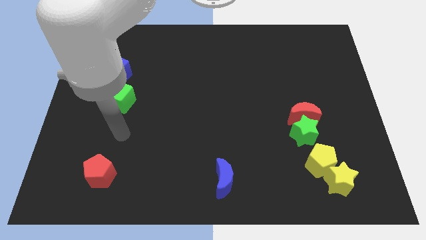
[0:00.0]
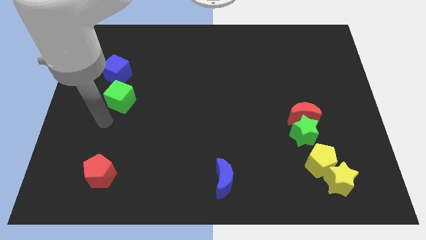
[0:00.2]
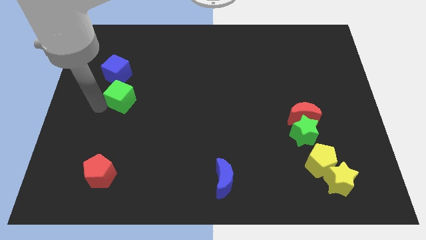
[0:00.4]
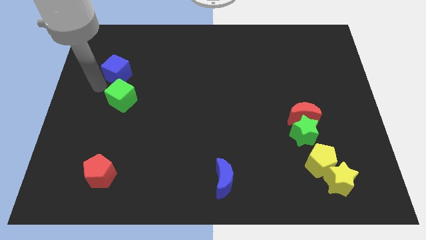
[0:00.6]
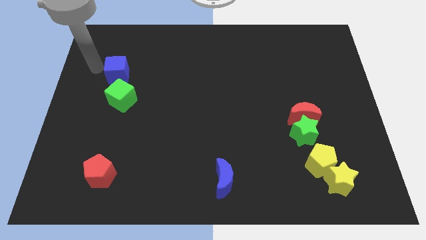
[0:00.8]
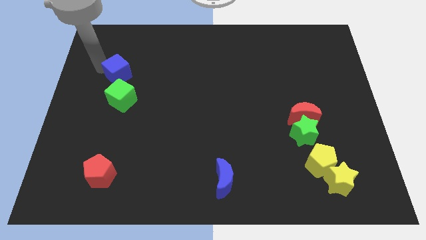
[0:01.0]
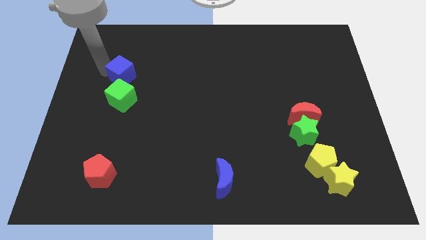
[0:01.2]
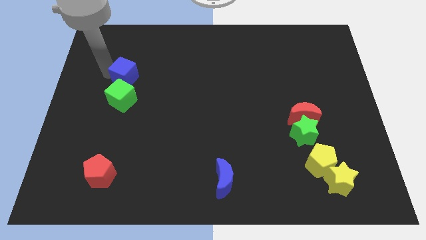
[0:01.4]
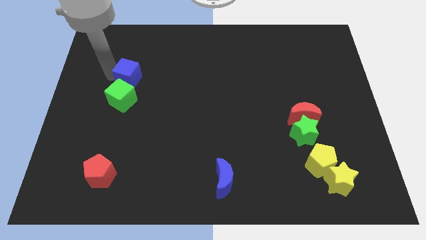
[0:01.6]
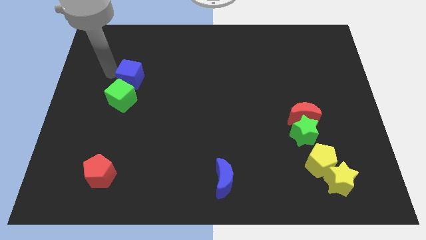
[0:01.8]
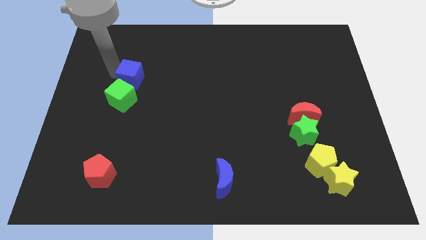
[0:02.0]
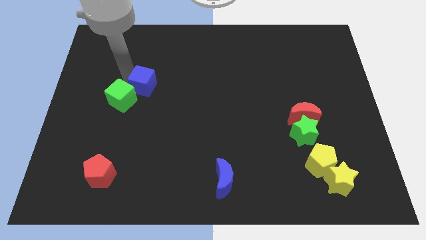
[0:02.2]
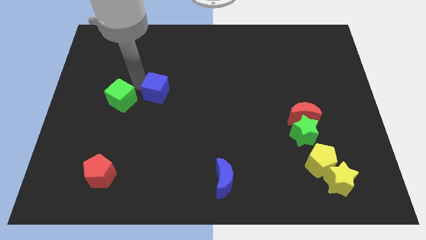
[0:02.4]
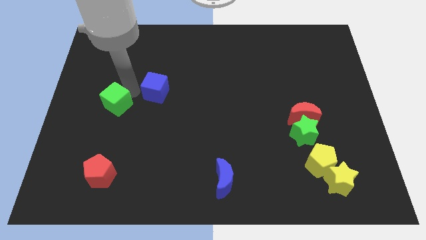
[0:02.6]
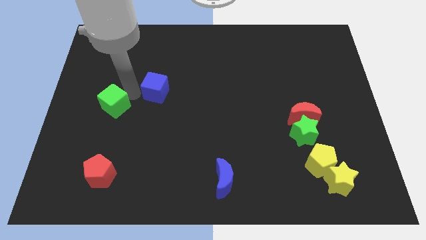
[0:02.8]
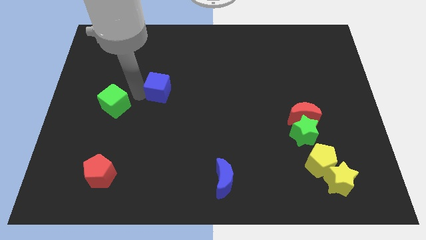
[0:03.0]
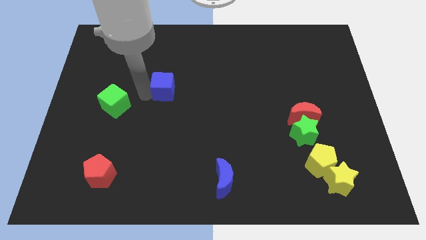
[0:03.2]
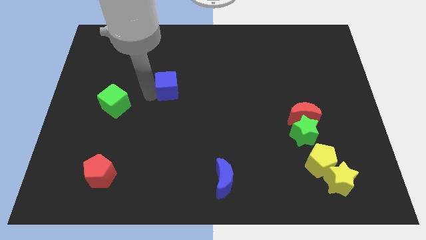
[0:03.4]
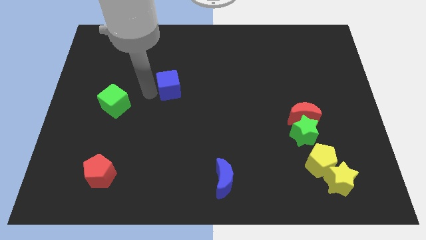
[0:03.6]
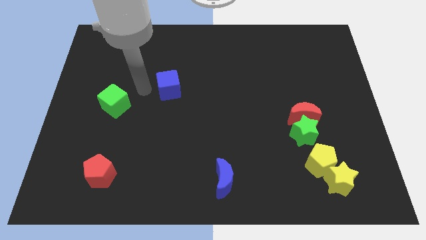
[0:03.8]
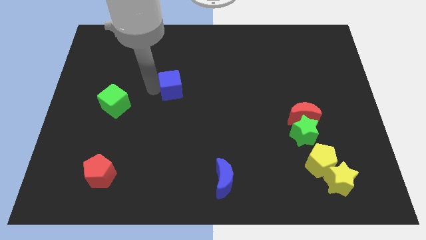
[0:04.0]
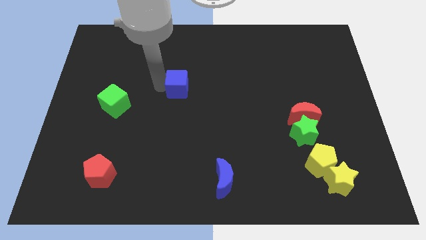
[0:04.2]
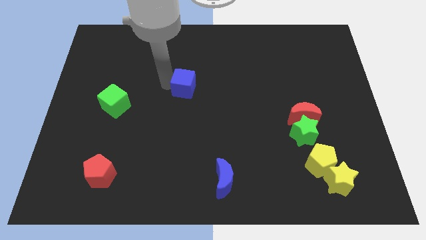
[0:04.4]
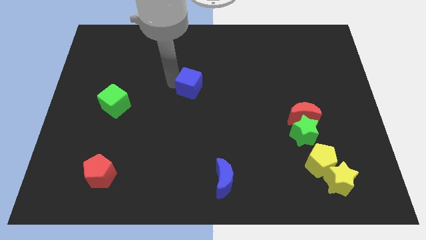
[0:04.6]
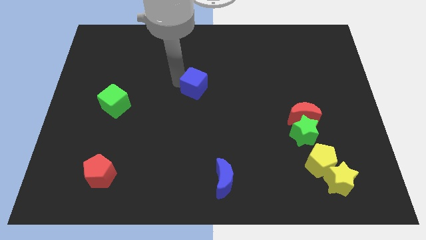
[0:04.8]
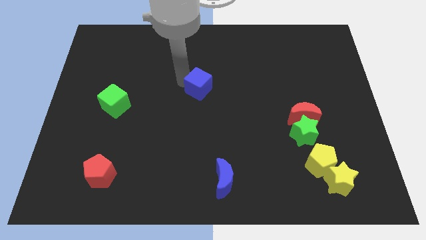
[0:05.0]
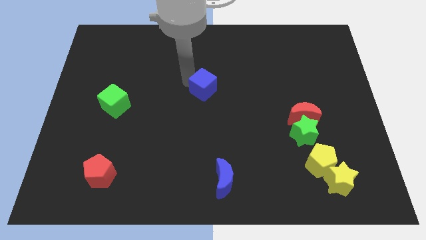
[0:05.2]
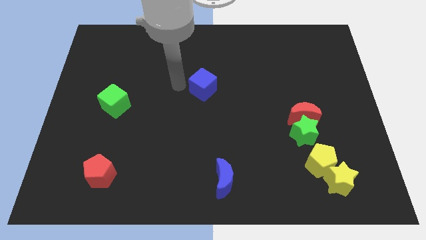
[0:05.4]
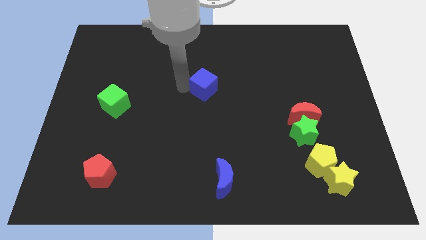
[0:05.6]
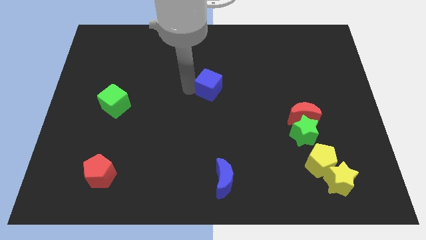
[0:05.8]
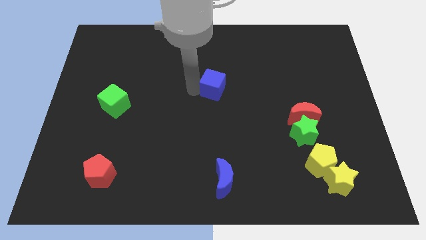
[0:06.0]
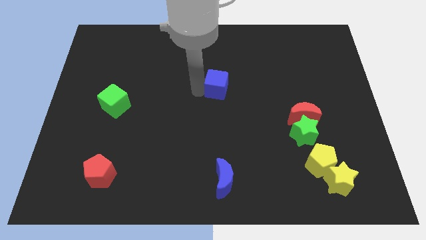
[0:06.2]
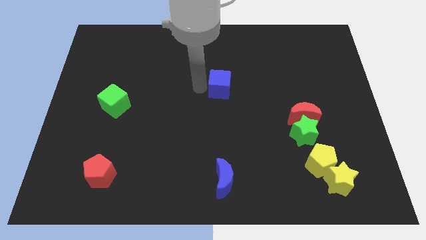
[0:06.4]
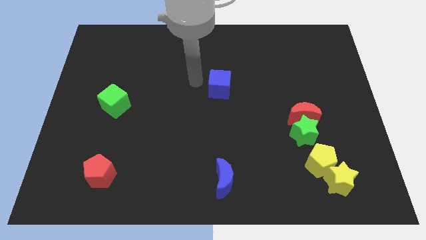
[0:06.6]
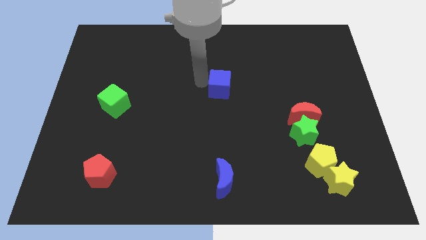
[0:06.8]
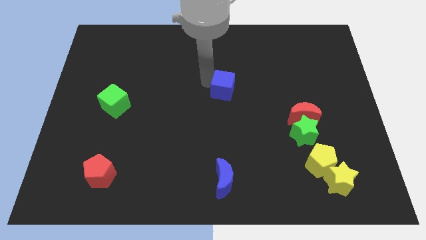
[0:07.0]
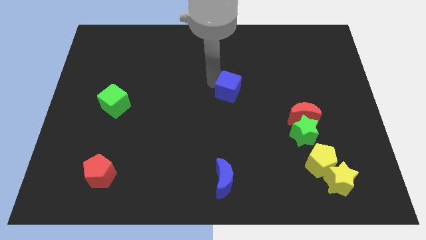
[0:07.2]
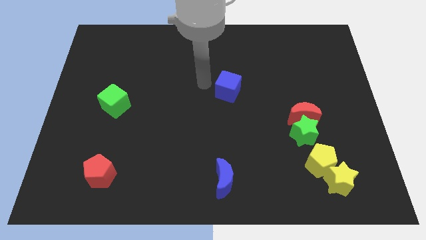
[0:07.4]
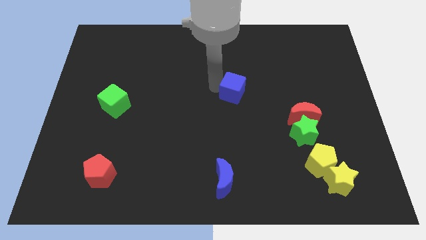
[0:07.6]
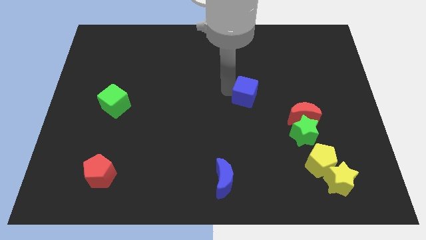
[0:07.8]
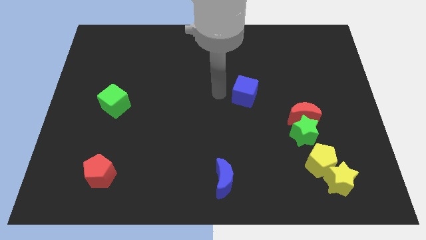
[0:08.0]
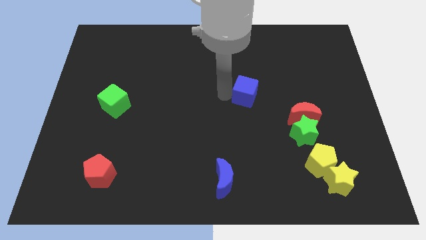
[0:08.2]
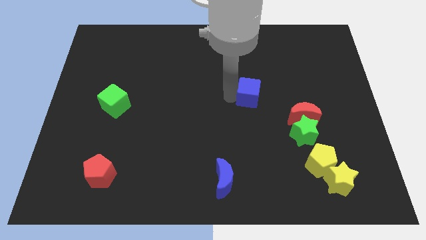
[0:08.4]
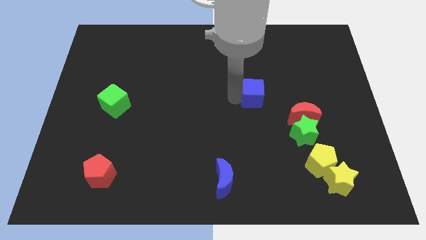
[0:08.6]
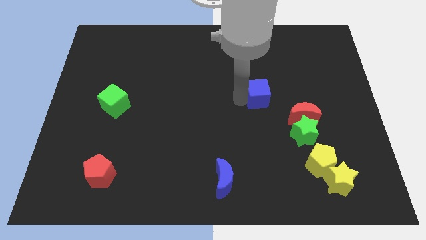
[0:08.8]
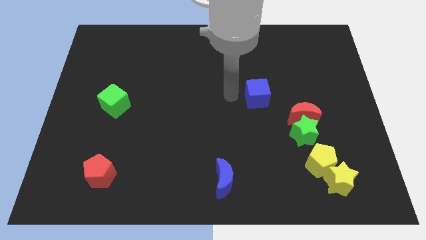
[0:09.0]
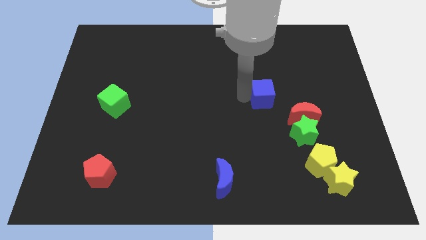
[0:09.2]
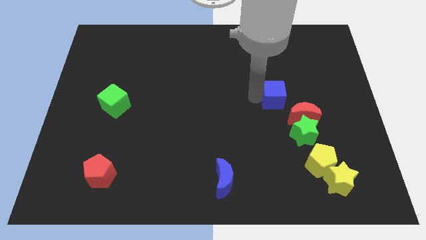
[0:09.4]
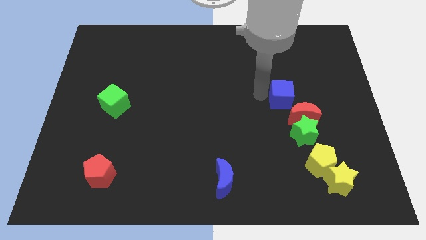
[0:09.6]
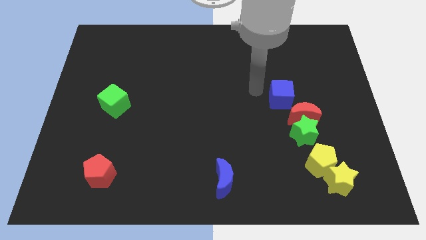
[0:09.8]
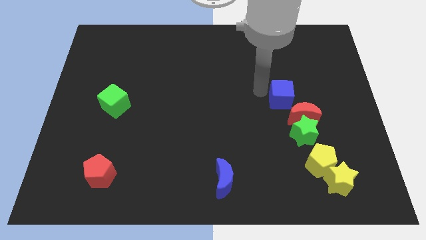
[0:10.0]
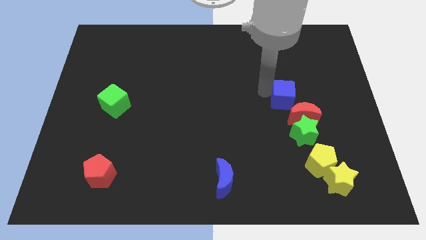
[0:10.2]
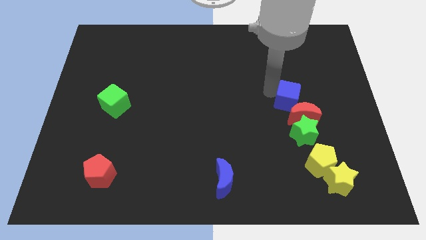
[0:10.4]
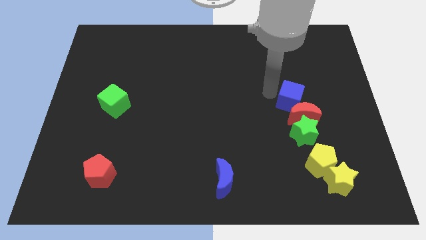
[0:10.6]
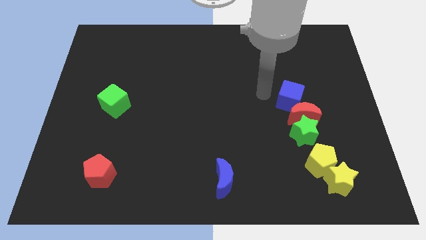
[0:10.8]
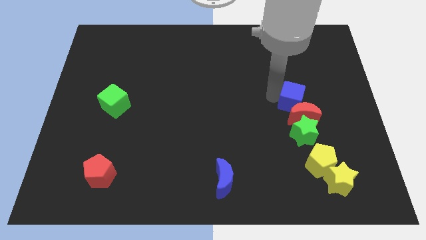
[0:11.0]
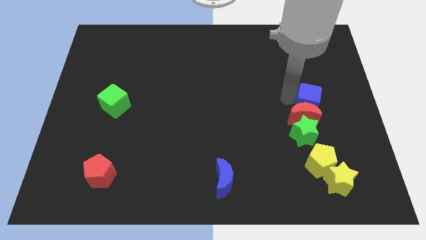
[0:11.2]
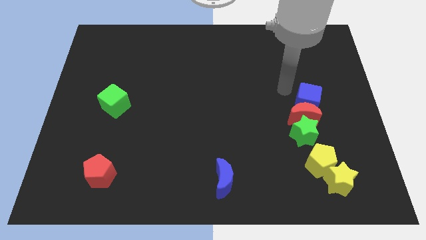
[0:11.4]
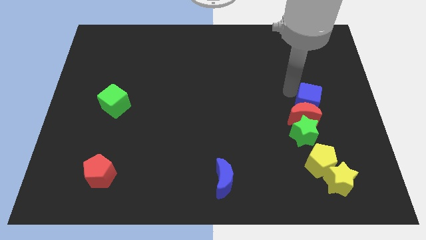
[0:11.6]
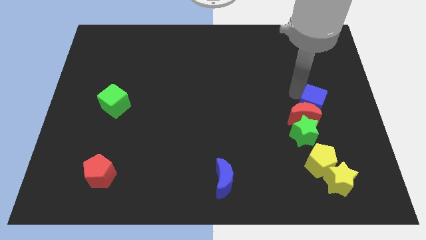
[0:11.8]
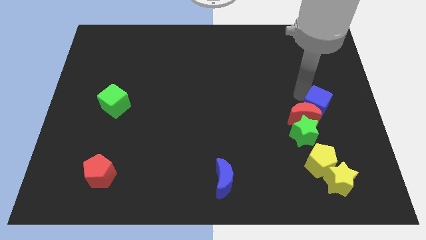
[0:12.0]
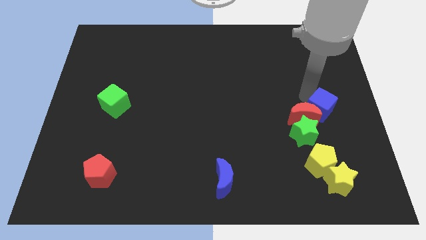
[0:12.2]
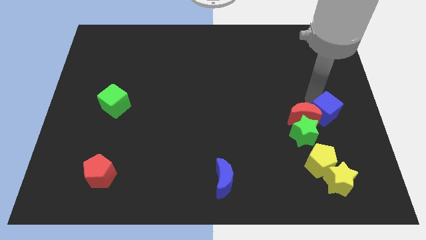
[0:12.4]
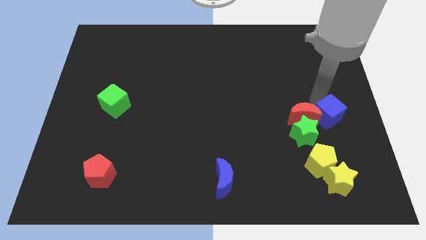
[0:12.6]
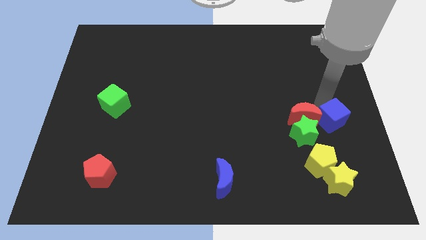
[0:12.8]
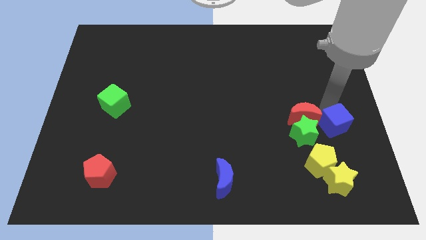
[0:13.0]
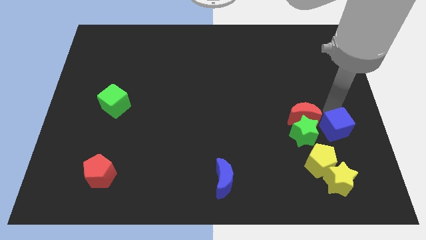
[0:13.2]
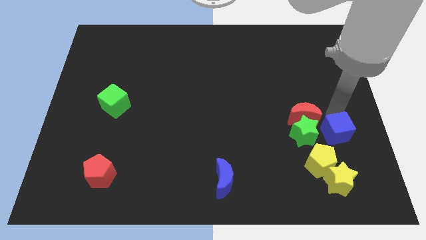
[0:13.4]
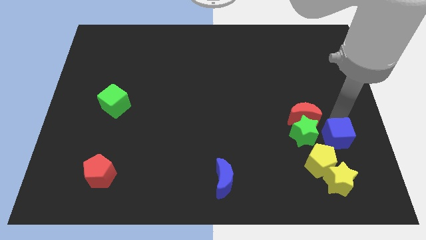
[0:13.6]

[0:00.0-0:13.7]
move the blue cube to the bottom right side of the green star

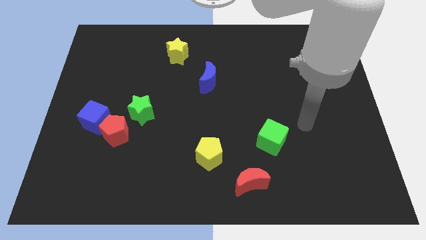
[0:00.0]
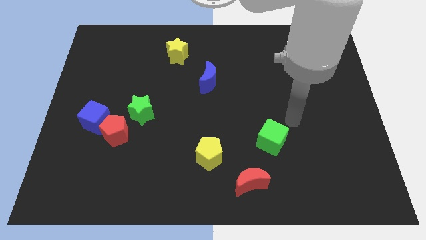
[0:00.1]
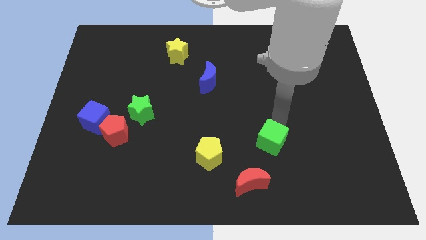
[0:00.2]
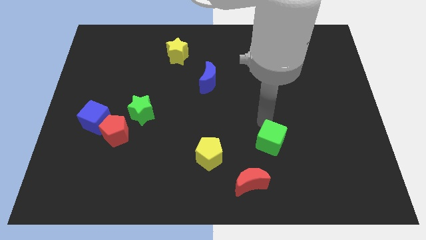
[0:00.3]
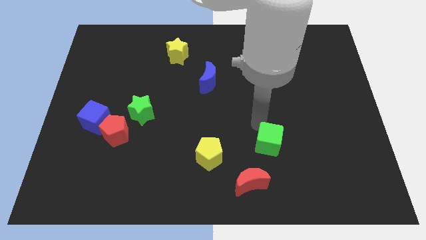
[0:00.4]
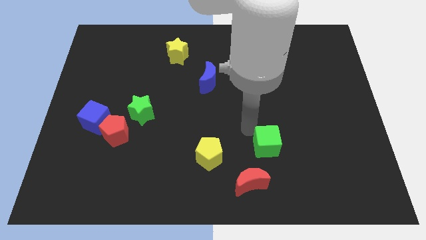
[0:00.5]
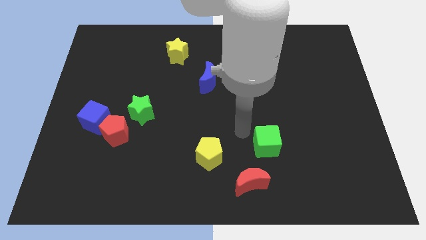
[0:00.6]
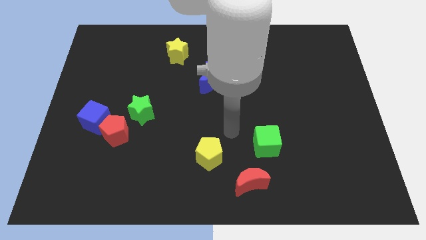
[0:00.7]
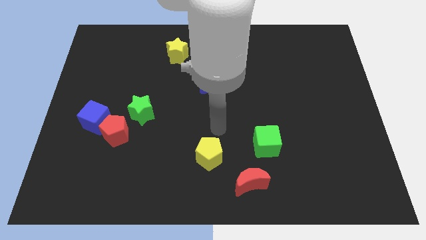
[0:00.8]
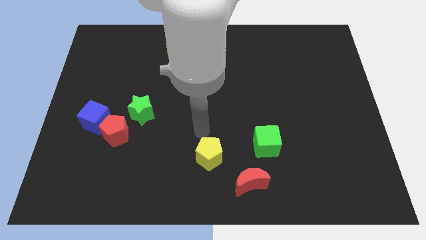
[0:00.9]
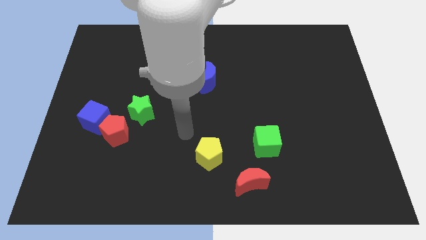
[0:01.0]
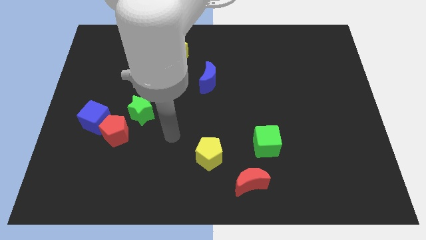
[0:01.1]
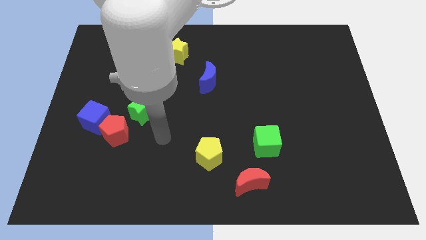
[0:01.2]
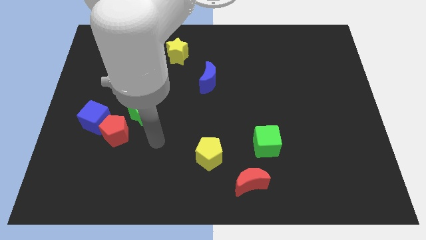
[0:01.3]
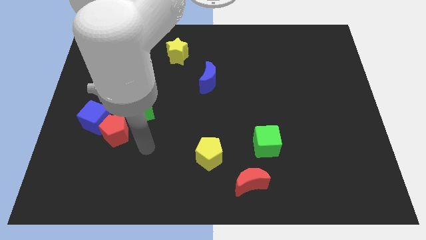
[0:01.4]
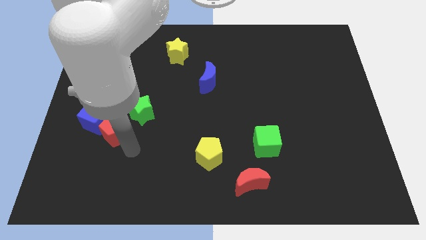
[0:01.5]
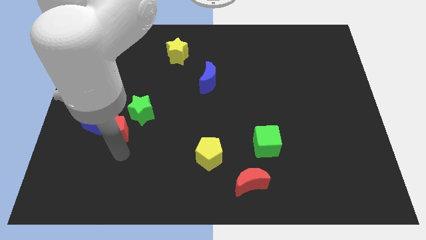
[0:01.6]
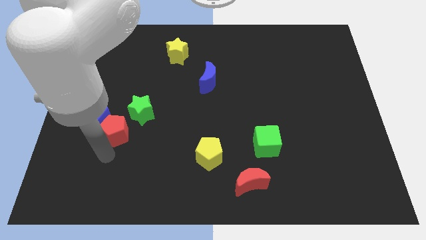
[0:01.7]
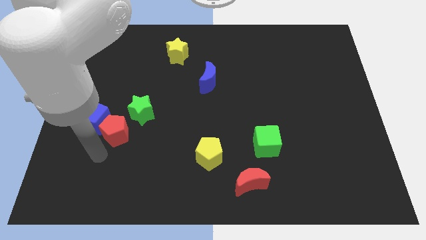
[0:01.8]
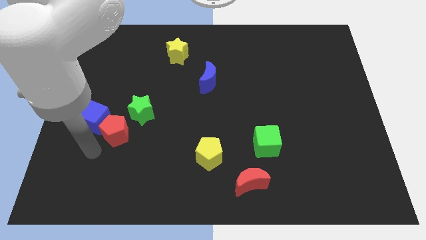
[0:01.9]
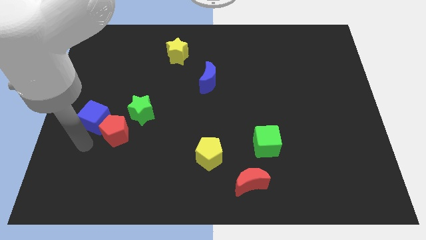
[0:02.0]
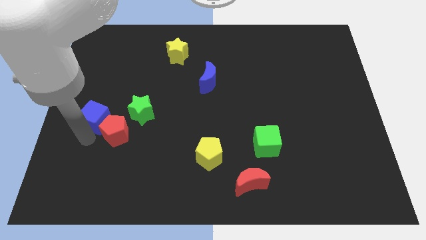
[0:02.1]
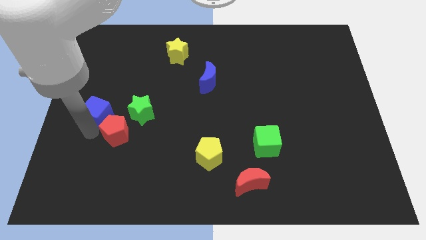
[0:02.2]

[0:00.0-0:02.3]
slide the blue cube to the top of the red pentagon
